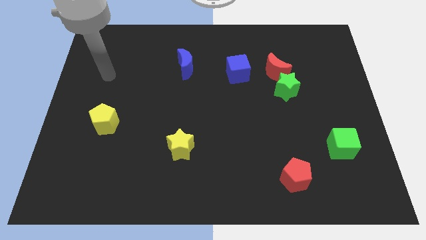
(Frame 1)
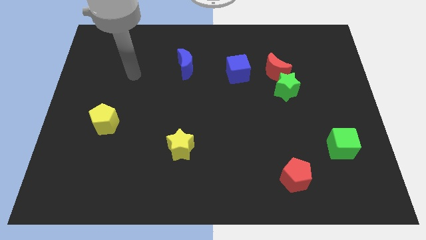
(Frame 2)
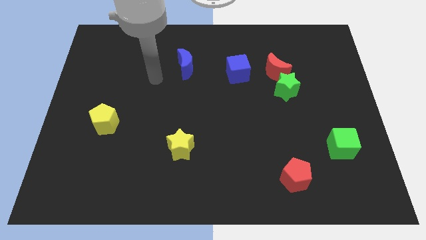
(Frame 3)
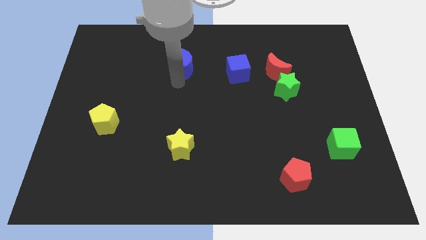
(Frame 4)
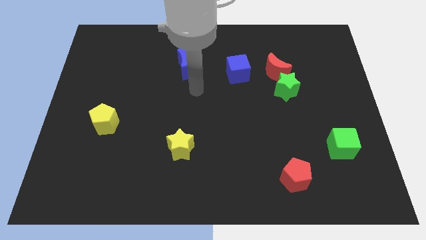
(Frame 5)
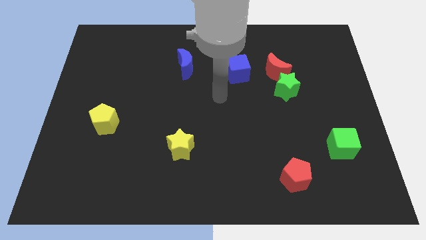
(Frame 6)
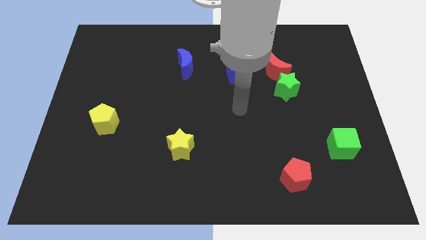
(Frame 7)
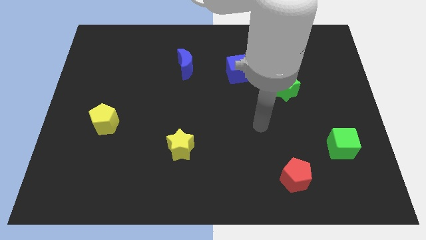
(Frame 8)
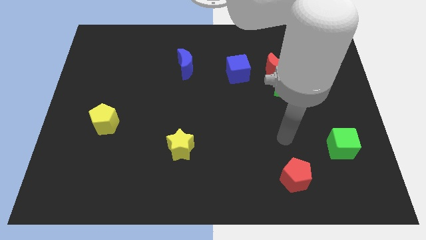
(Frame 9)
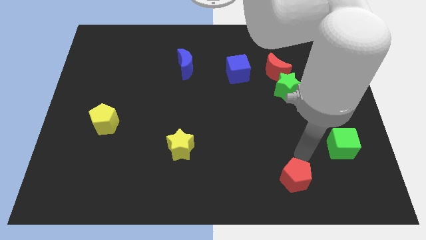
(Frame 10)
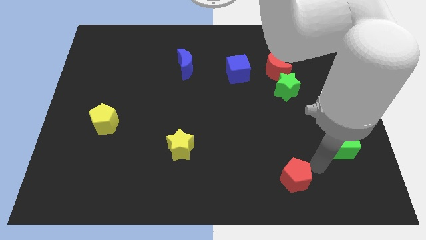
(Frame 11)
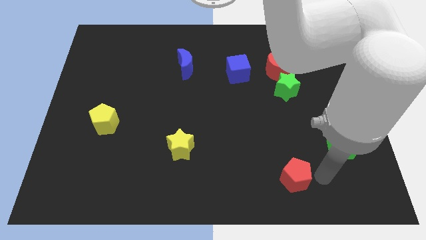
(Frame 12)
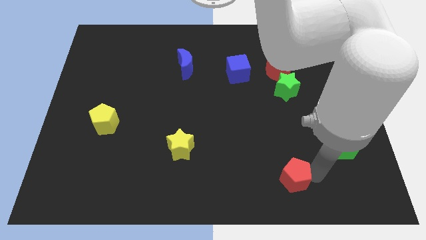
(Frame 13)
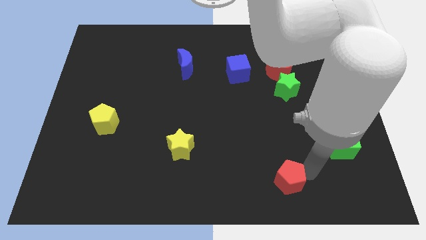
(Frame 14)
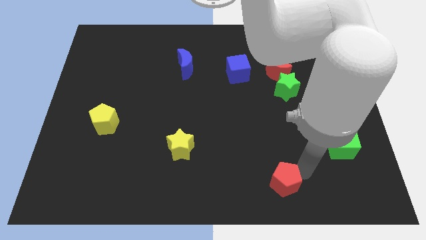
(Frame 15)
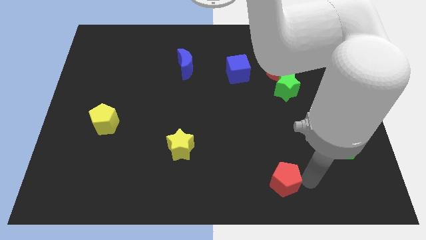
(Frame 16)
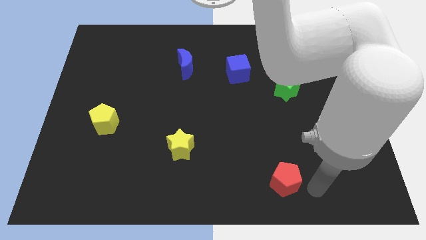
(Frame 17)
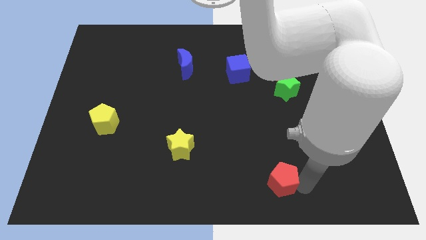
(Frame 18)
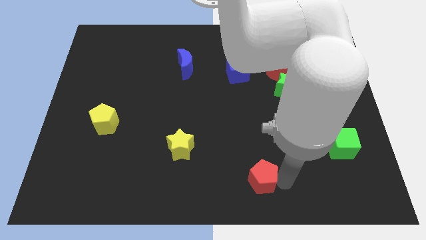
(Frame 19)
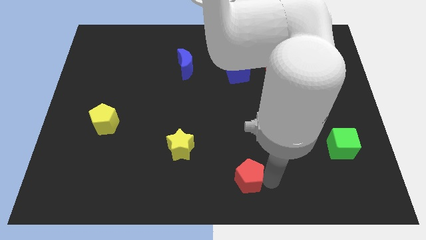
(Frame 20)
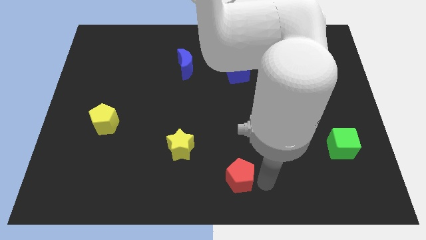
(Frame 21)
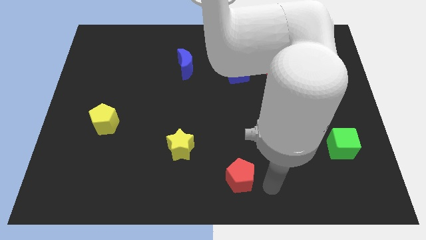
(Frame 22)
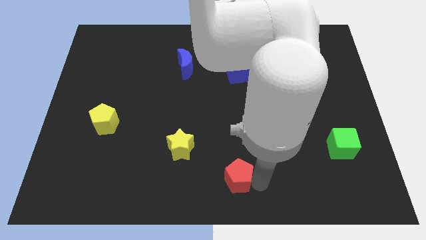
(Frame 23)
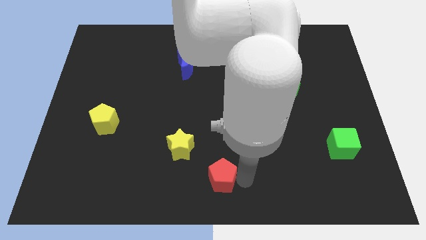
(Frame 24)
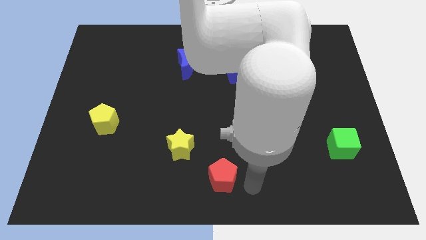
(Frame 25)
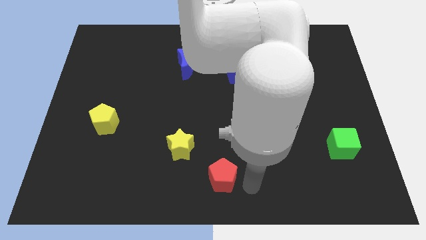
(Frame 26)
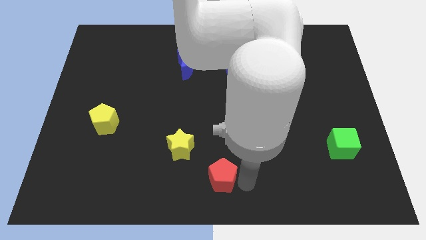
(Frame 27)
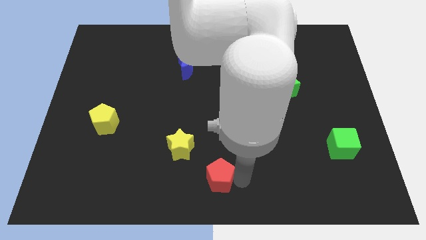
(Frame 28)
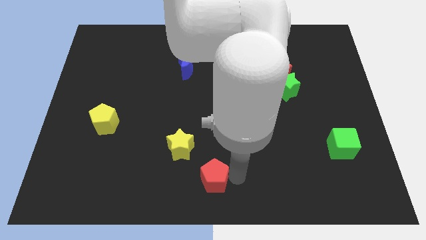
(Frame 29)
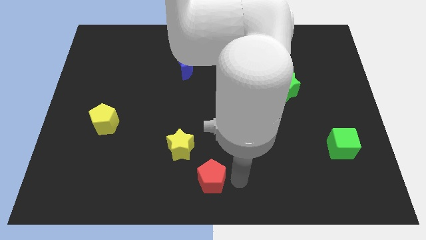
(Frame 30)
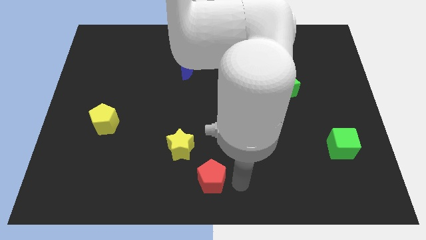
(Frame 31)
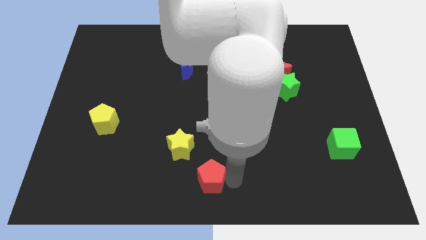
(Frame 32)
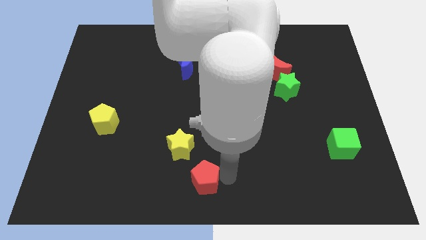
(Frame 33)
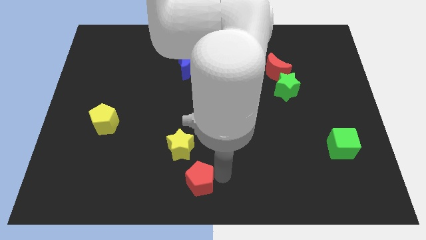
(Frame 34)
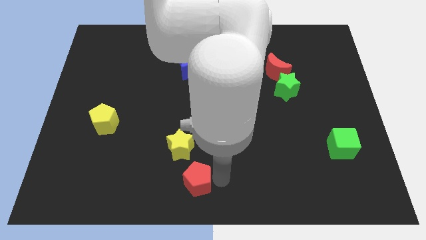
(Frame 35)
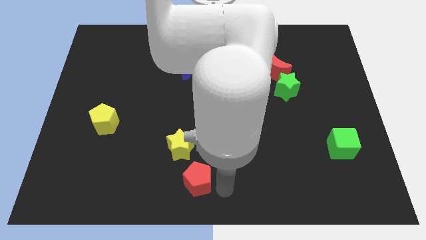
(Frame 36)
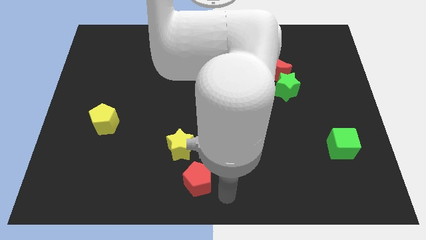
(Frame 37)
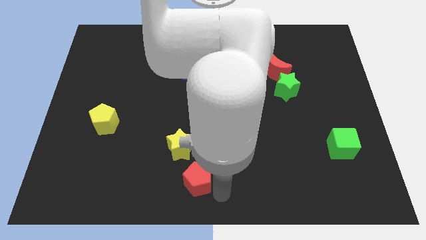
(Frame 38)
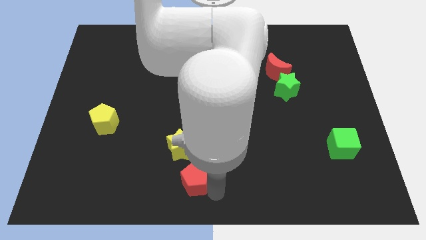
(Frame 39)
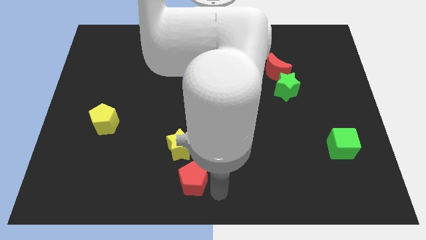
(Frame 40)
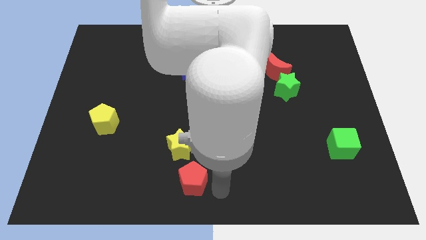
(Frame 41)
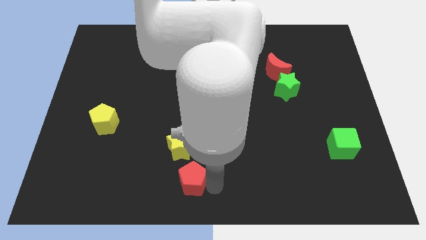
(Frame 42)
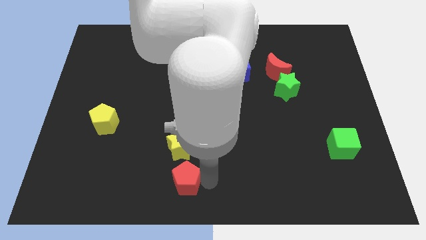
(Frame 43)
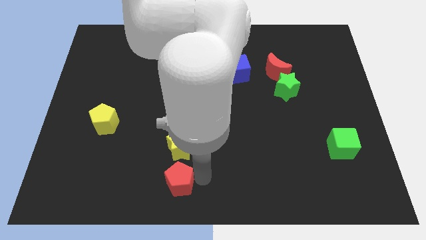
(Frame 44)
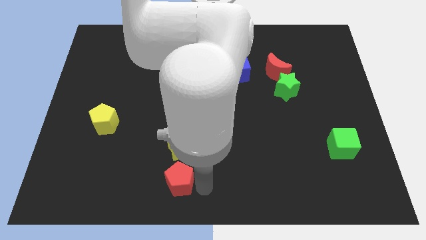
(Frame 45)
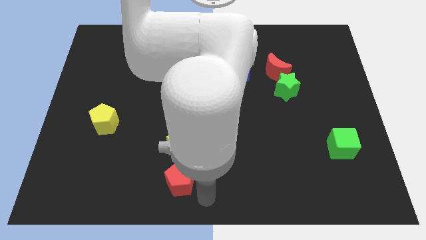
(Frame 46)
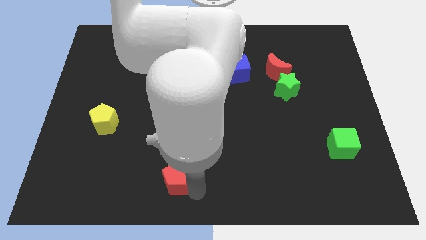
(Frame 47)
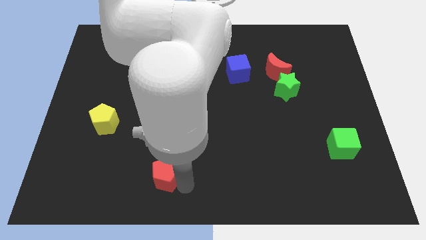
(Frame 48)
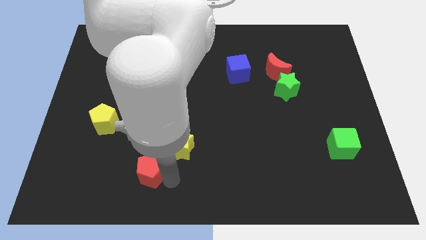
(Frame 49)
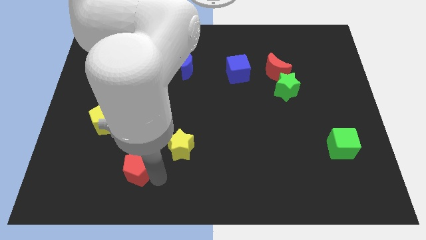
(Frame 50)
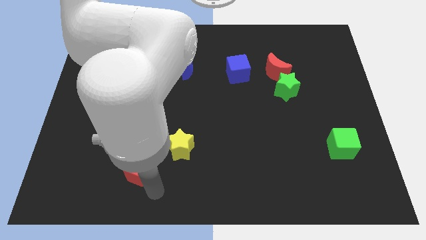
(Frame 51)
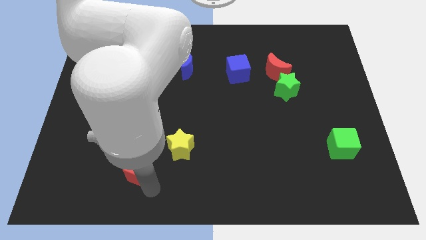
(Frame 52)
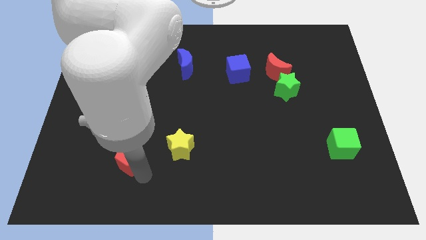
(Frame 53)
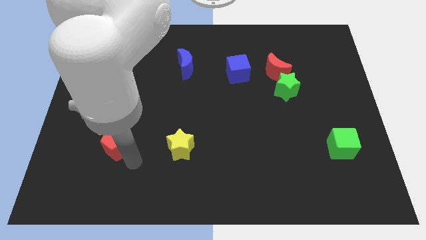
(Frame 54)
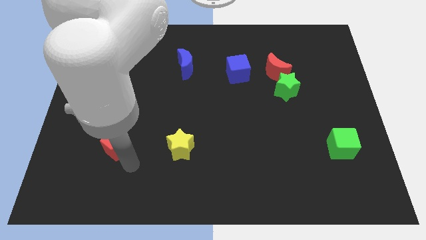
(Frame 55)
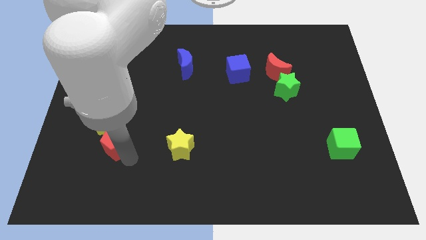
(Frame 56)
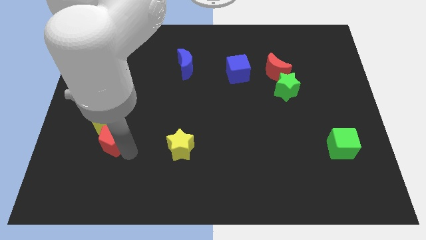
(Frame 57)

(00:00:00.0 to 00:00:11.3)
move the red pentagon next to the yellow pentagon
